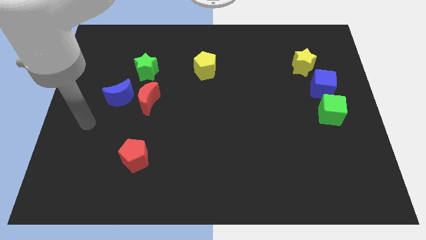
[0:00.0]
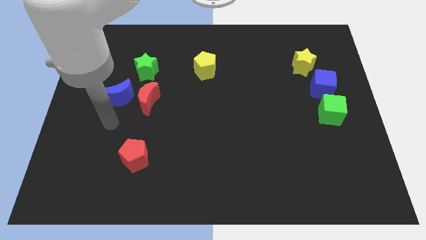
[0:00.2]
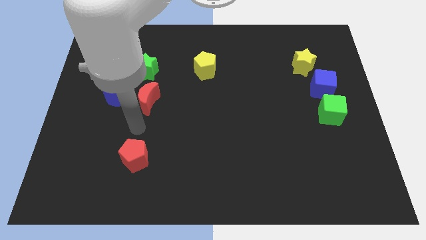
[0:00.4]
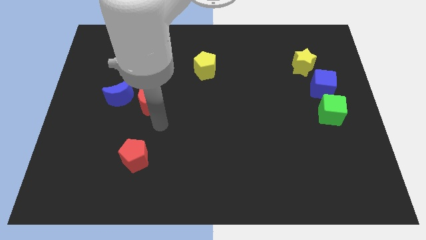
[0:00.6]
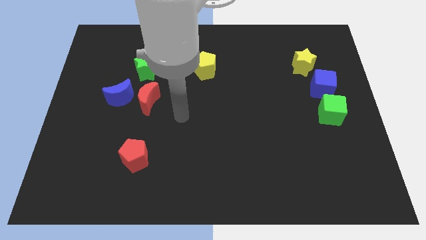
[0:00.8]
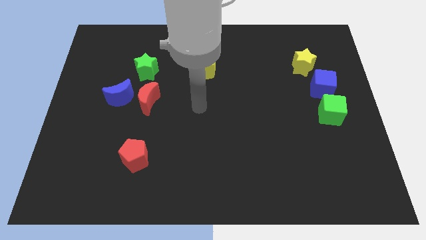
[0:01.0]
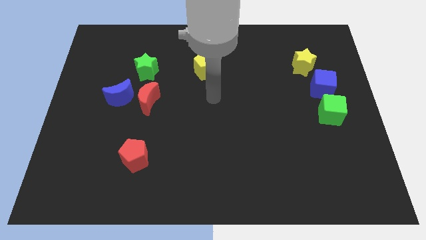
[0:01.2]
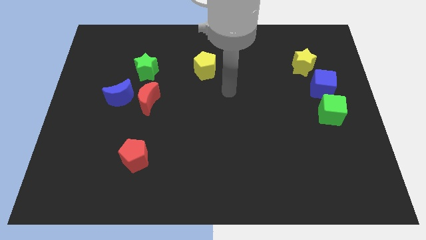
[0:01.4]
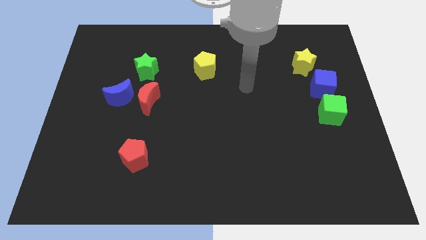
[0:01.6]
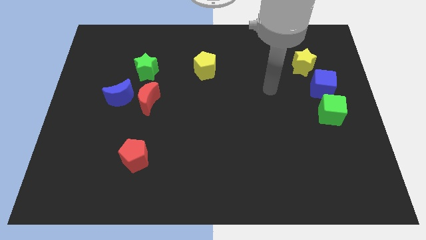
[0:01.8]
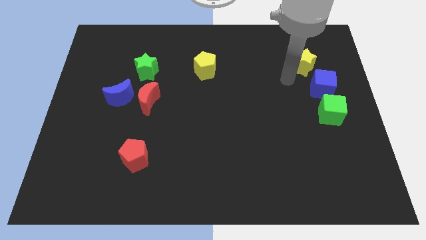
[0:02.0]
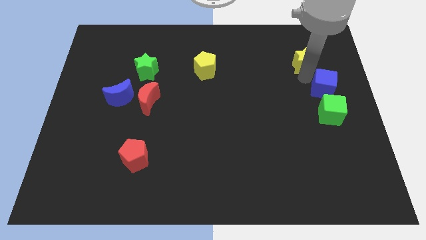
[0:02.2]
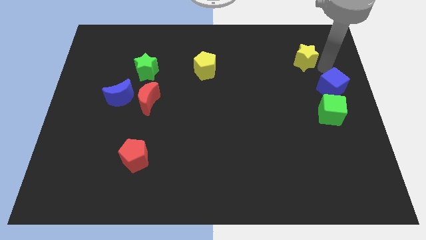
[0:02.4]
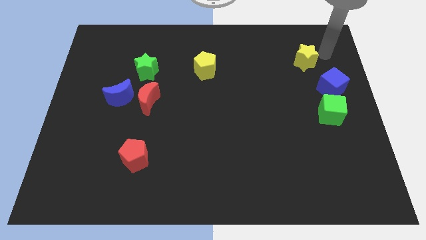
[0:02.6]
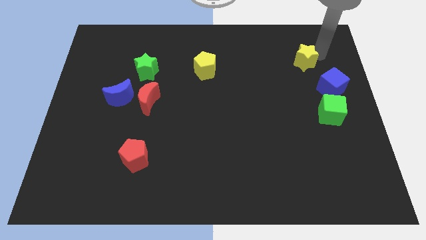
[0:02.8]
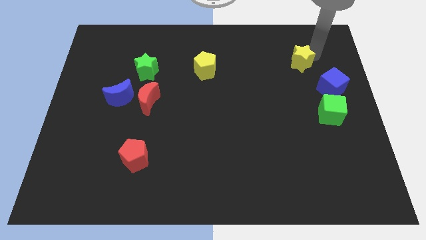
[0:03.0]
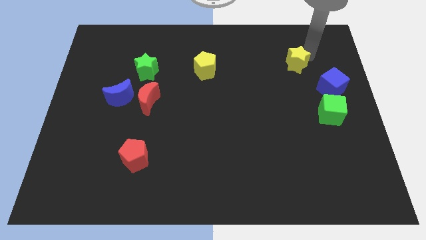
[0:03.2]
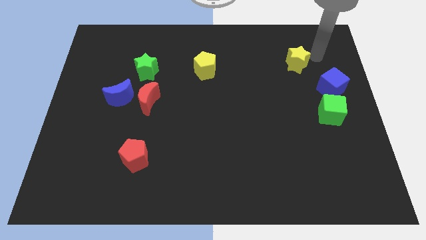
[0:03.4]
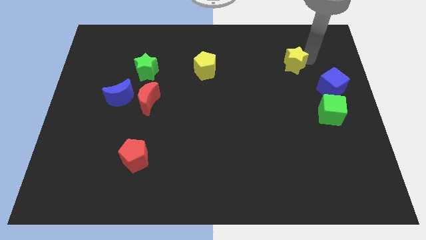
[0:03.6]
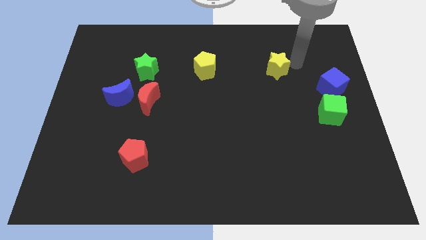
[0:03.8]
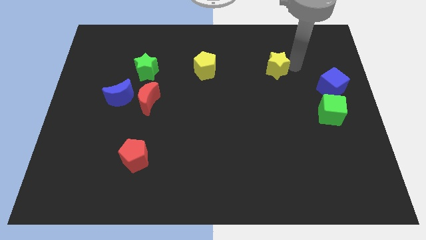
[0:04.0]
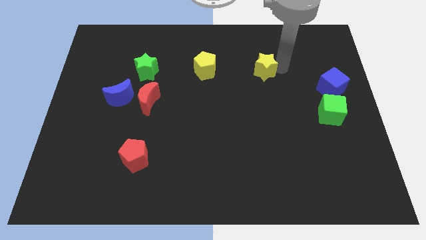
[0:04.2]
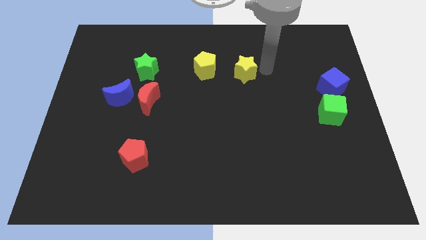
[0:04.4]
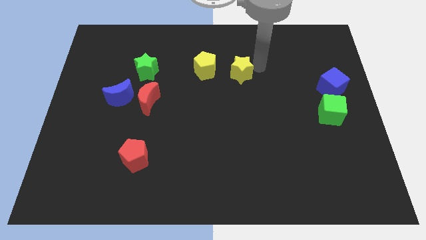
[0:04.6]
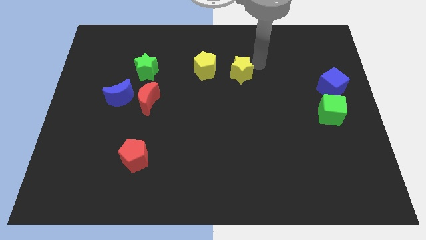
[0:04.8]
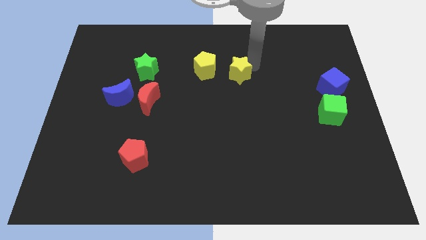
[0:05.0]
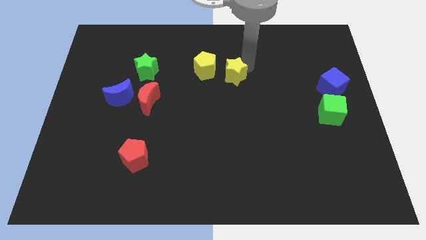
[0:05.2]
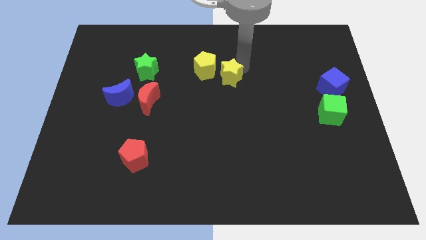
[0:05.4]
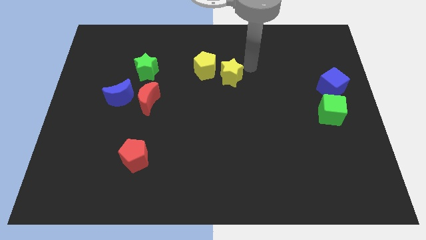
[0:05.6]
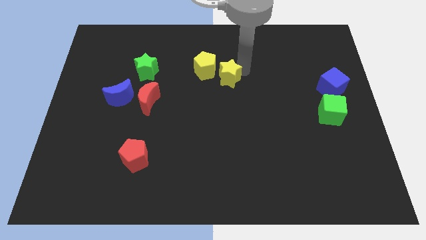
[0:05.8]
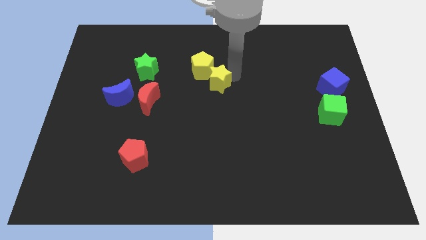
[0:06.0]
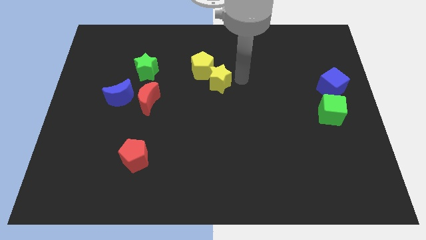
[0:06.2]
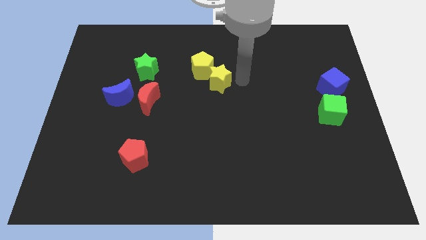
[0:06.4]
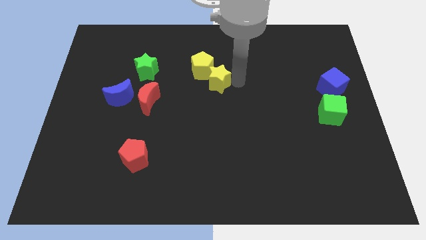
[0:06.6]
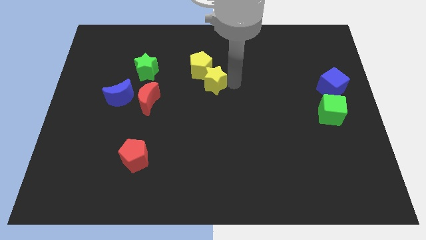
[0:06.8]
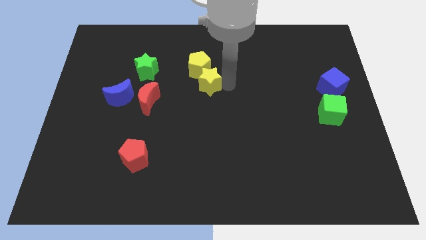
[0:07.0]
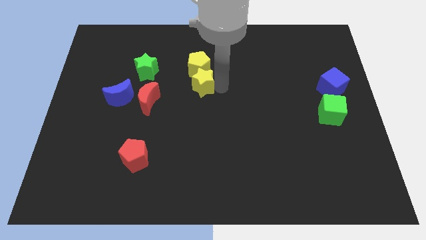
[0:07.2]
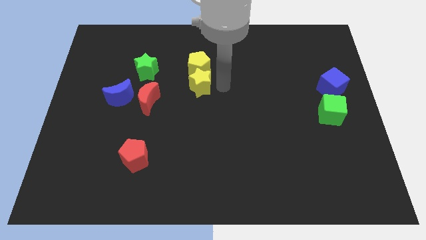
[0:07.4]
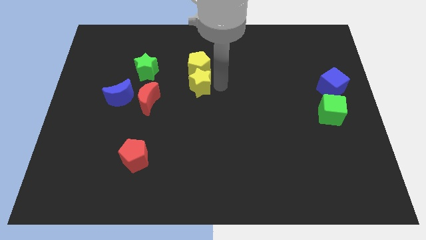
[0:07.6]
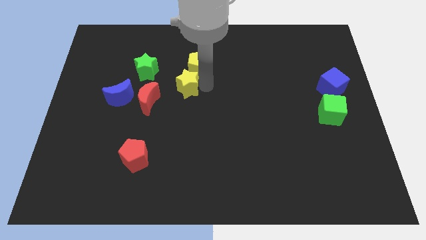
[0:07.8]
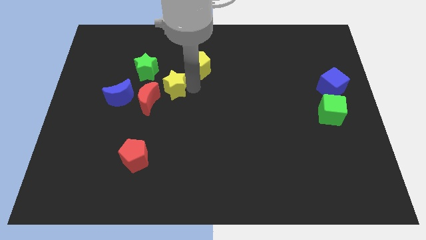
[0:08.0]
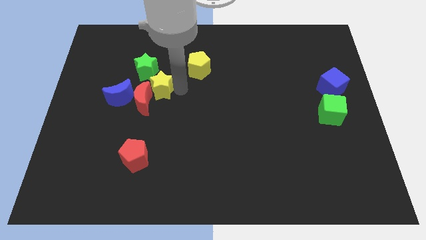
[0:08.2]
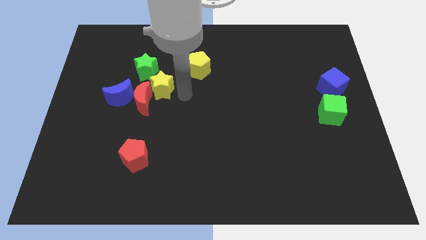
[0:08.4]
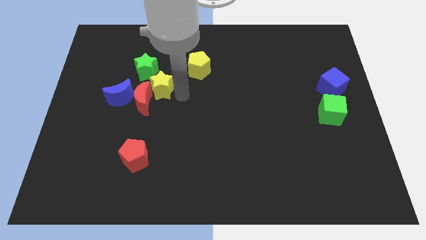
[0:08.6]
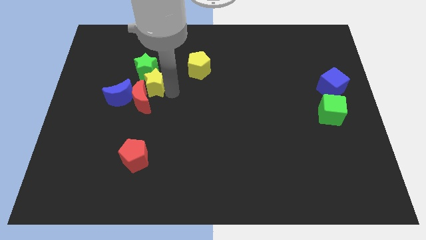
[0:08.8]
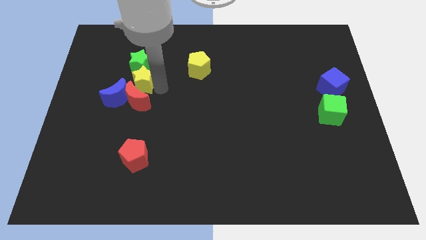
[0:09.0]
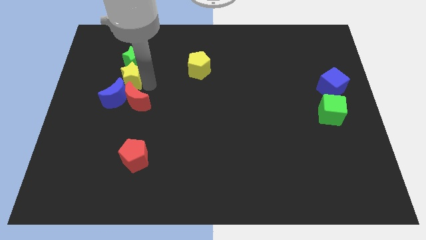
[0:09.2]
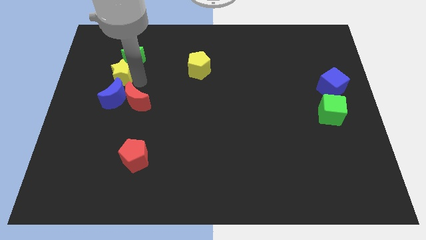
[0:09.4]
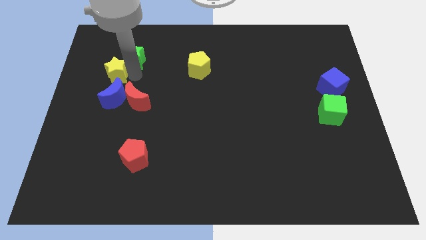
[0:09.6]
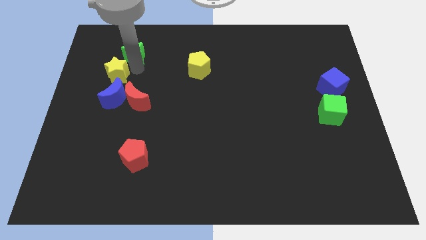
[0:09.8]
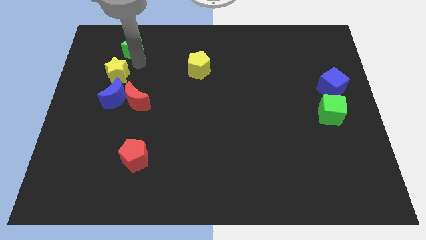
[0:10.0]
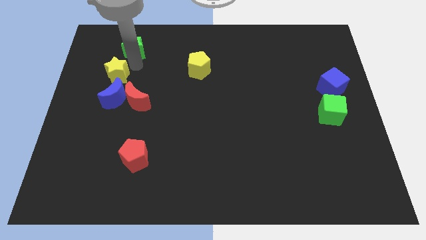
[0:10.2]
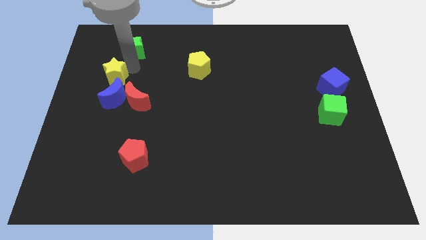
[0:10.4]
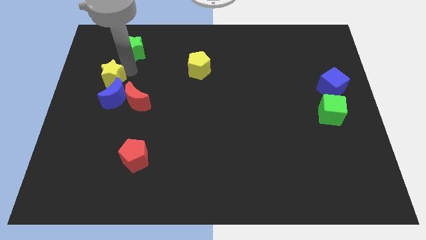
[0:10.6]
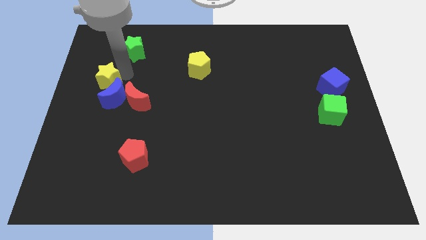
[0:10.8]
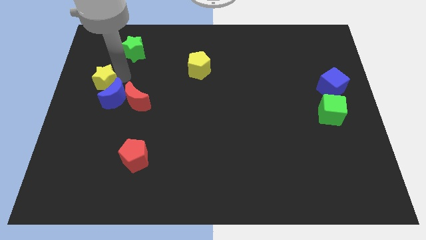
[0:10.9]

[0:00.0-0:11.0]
move the yellow star to the center left
